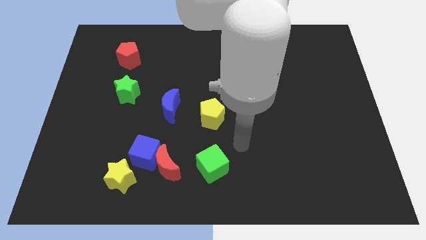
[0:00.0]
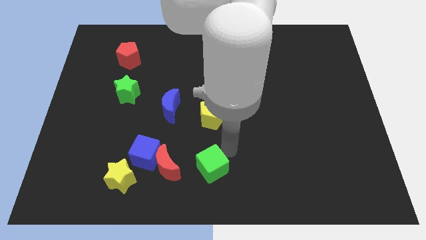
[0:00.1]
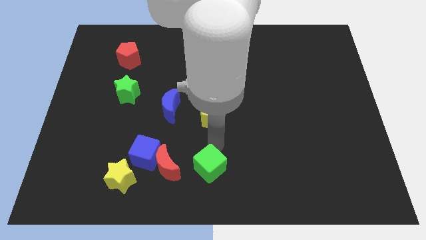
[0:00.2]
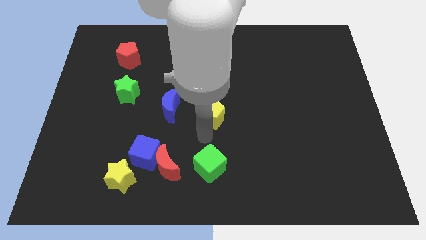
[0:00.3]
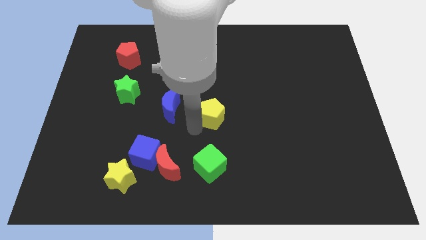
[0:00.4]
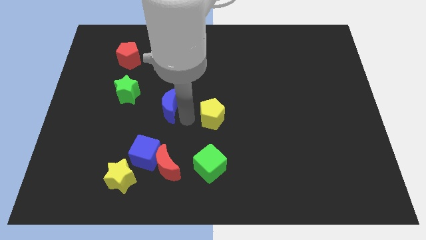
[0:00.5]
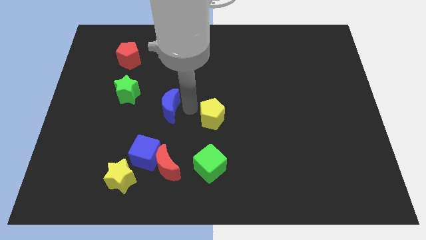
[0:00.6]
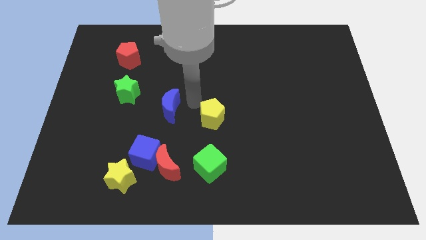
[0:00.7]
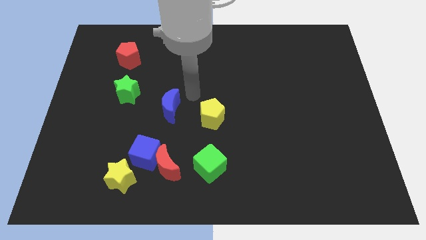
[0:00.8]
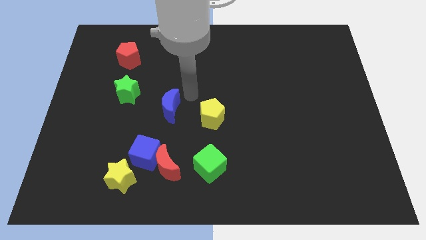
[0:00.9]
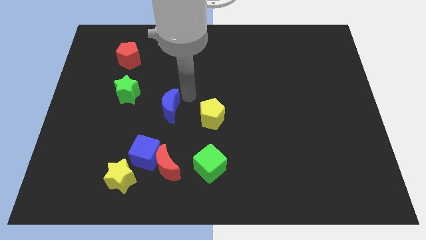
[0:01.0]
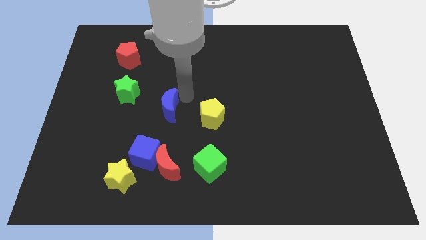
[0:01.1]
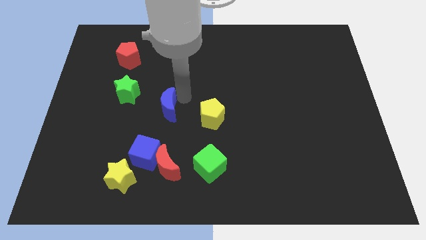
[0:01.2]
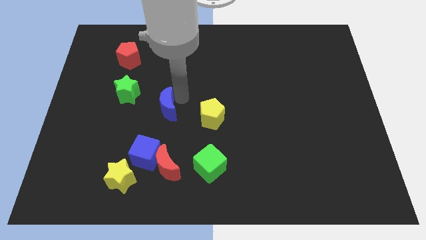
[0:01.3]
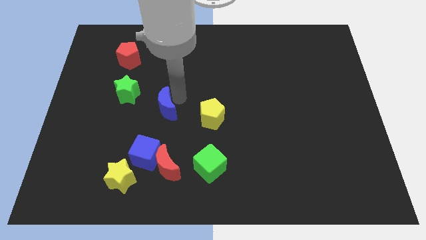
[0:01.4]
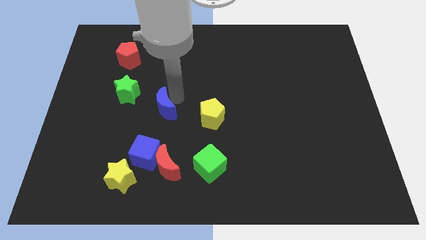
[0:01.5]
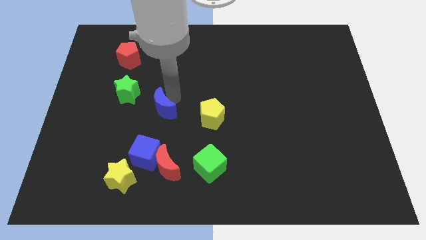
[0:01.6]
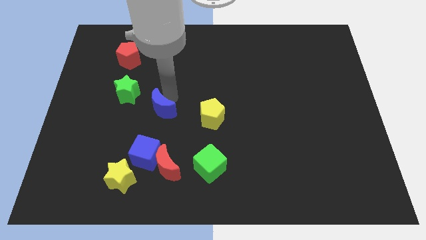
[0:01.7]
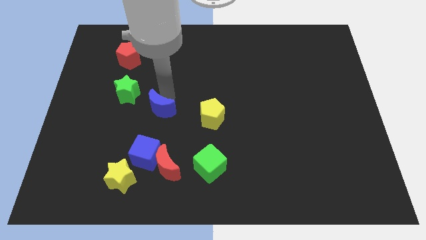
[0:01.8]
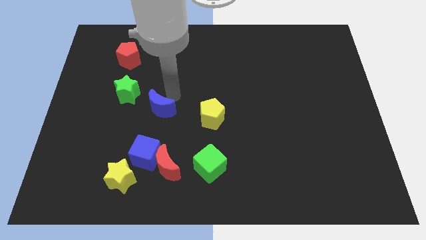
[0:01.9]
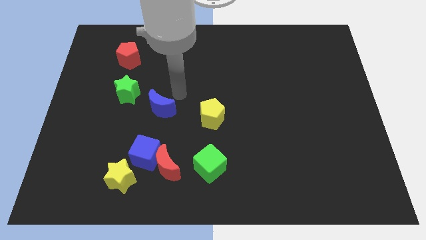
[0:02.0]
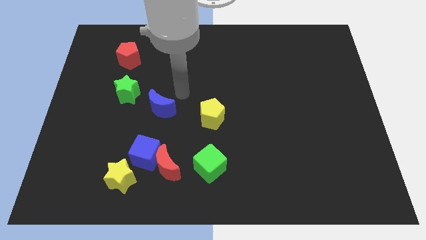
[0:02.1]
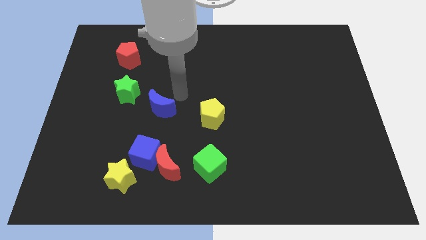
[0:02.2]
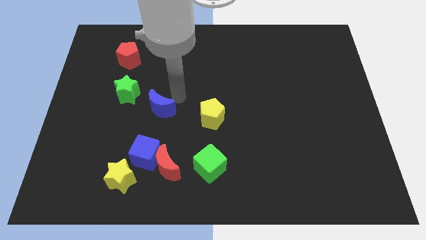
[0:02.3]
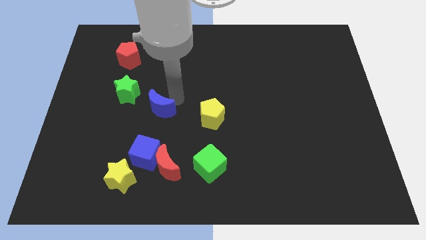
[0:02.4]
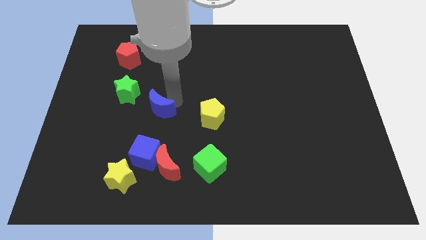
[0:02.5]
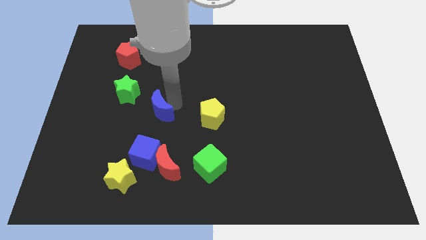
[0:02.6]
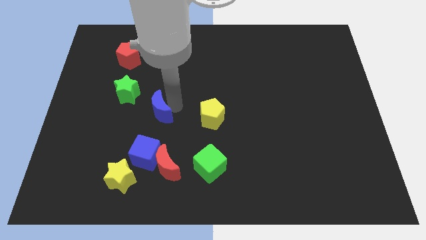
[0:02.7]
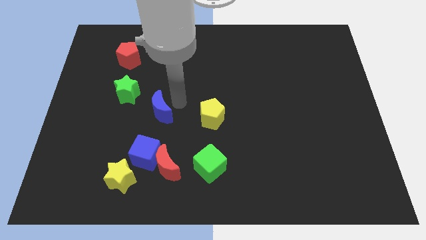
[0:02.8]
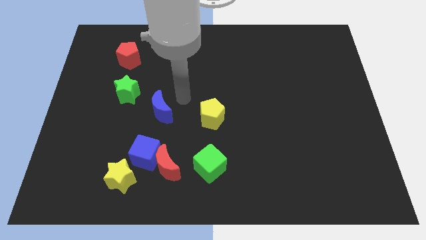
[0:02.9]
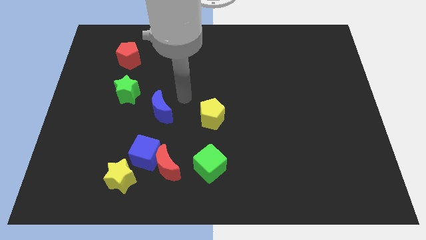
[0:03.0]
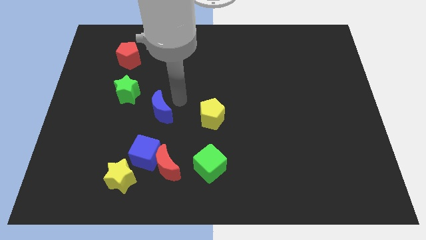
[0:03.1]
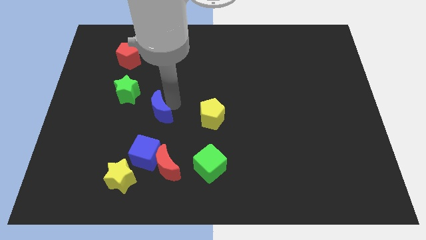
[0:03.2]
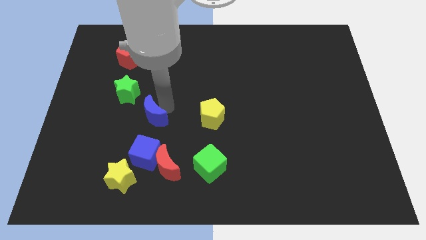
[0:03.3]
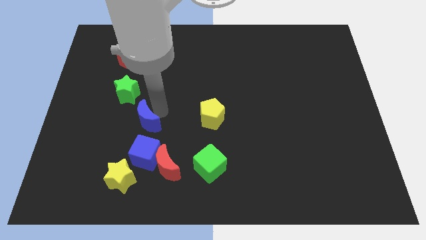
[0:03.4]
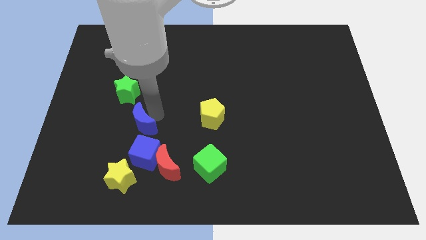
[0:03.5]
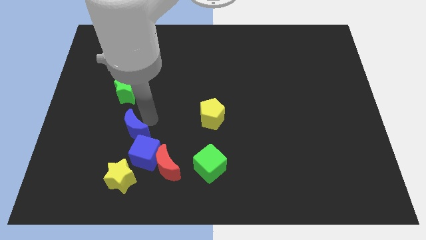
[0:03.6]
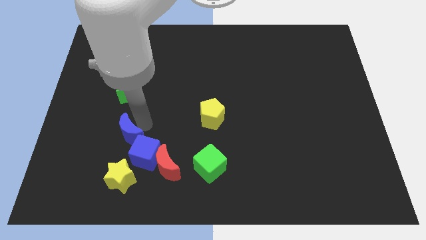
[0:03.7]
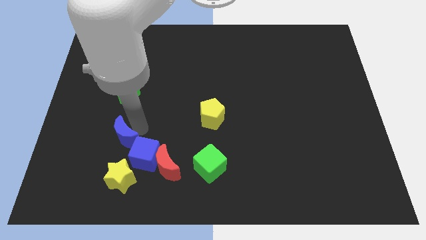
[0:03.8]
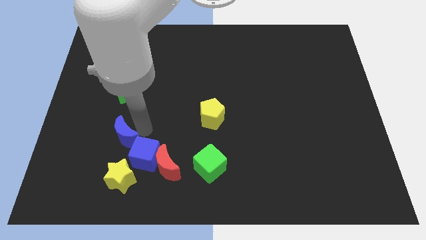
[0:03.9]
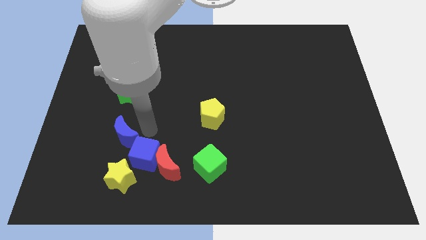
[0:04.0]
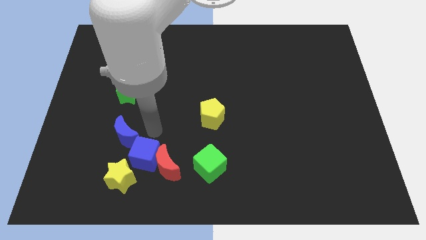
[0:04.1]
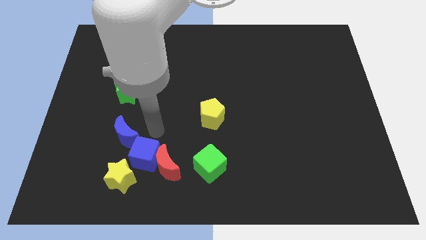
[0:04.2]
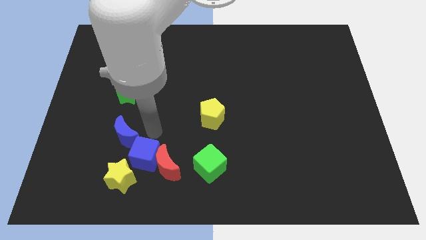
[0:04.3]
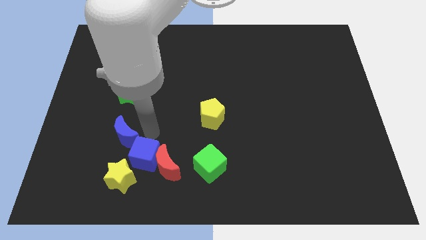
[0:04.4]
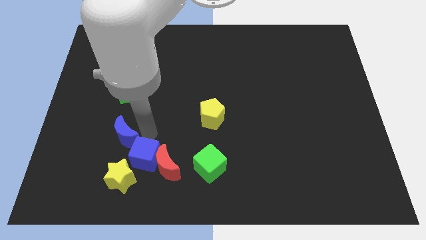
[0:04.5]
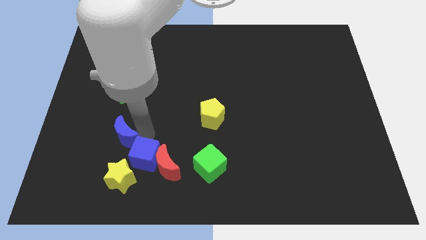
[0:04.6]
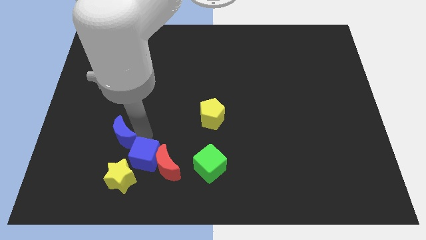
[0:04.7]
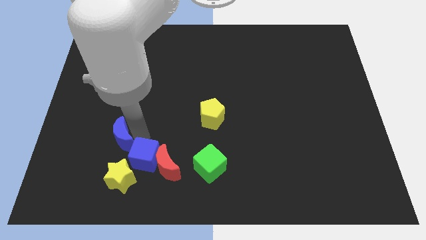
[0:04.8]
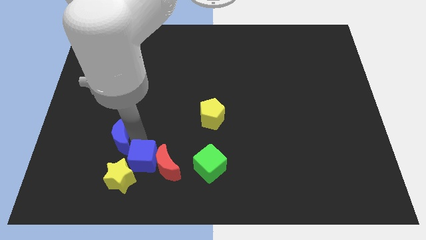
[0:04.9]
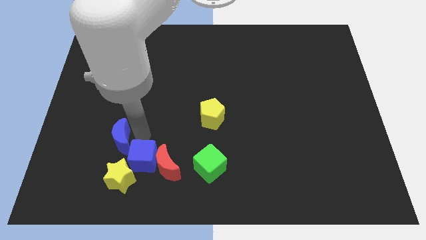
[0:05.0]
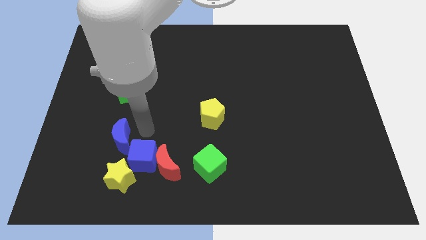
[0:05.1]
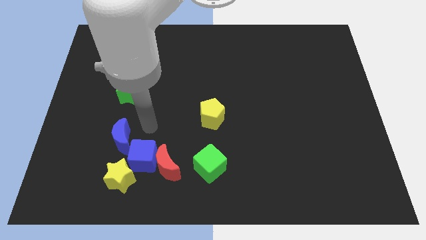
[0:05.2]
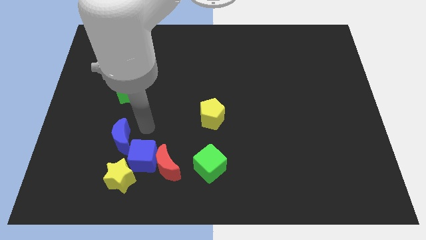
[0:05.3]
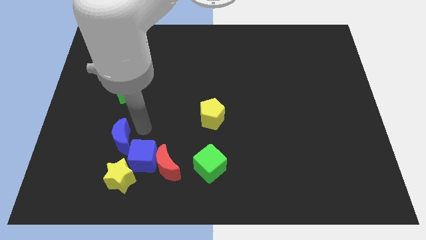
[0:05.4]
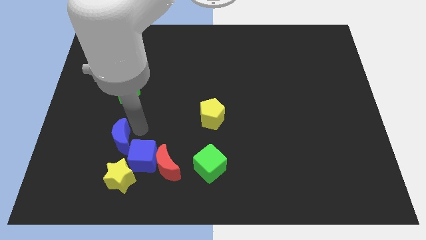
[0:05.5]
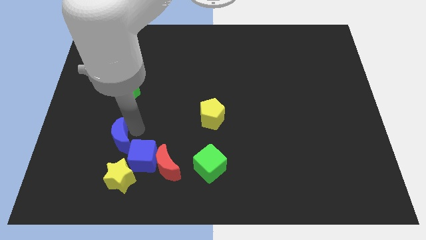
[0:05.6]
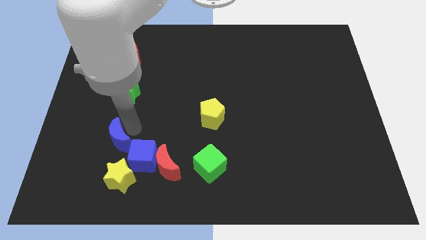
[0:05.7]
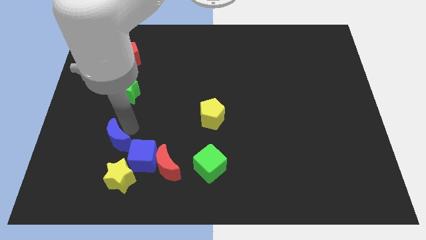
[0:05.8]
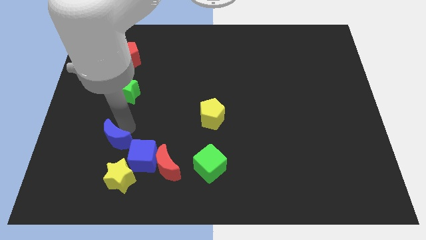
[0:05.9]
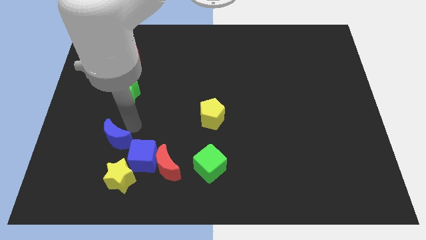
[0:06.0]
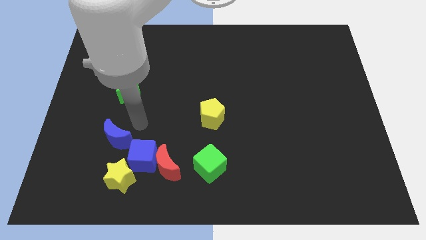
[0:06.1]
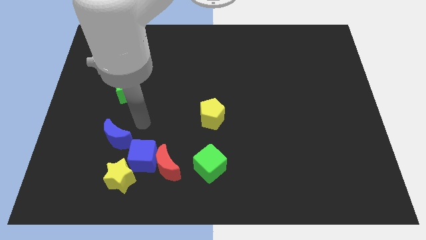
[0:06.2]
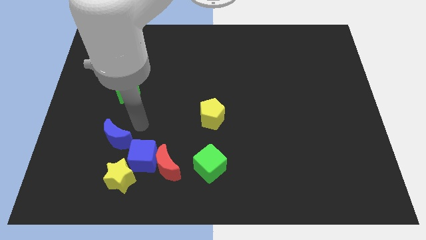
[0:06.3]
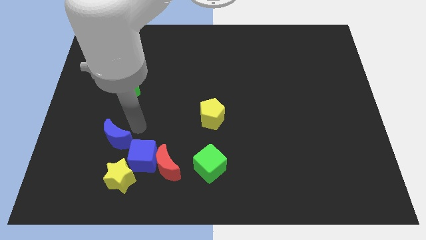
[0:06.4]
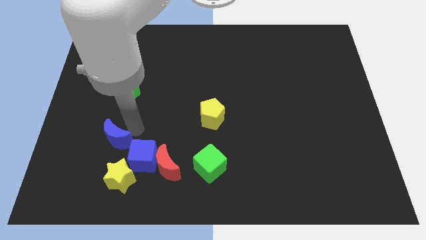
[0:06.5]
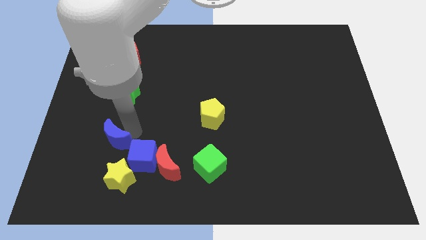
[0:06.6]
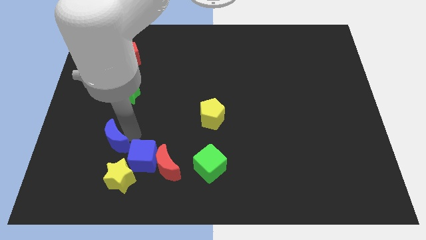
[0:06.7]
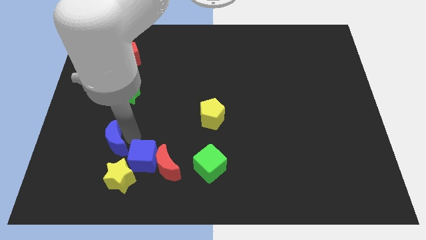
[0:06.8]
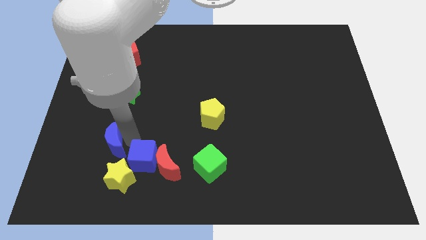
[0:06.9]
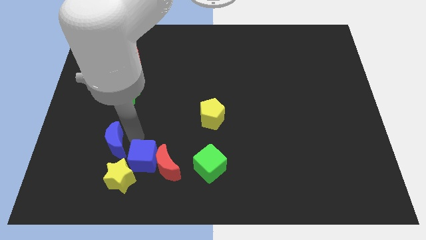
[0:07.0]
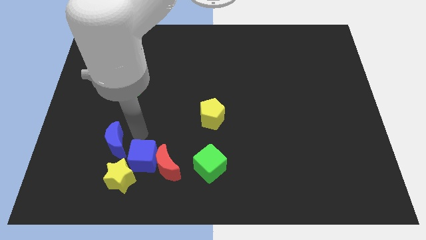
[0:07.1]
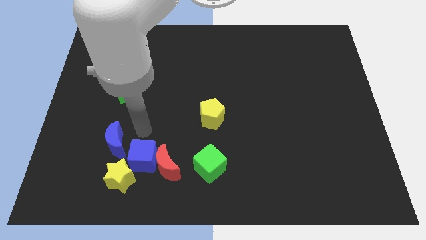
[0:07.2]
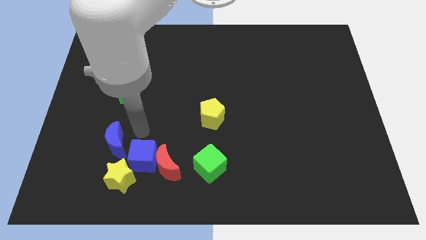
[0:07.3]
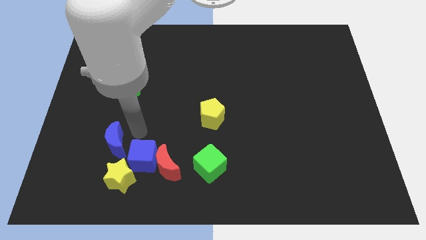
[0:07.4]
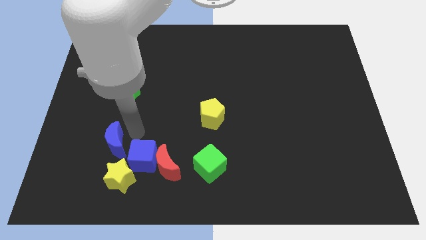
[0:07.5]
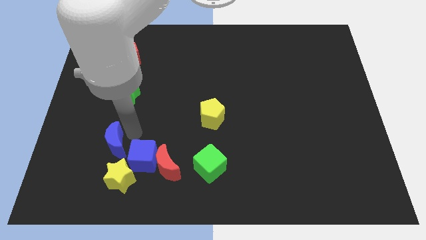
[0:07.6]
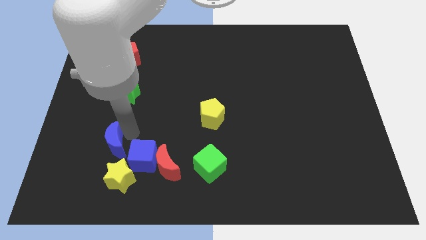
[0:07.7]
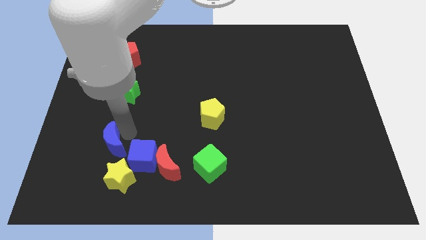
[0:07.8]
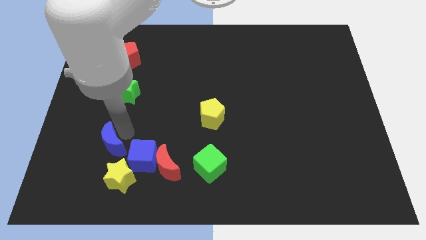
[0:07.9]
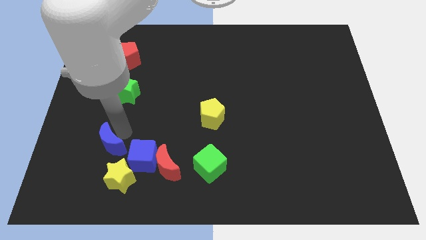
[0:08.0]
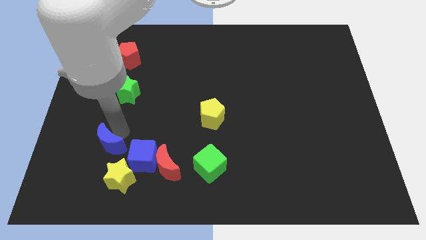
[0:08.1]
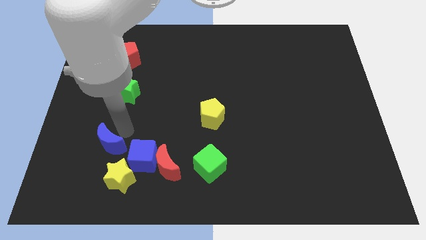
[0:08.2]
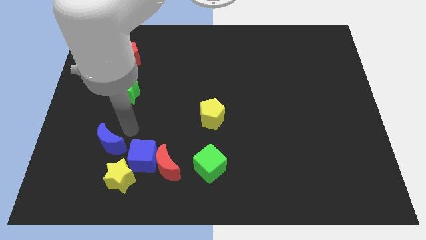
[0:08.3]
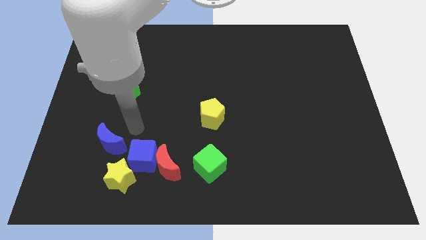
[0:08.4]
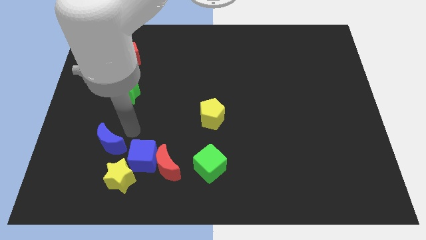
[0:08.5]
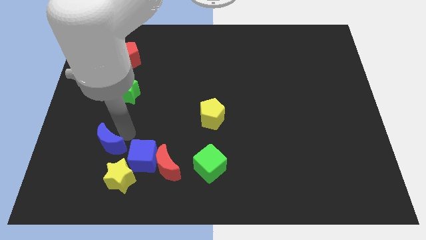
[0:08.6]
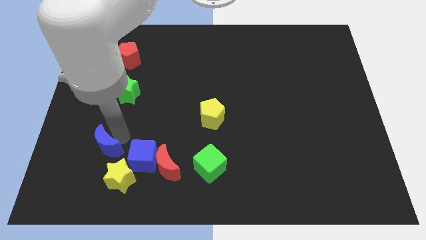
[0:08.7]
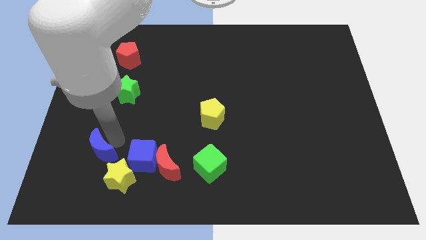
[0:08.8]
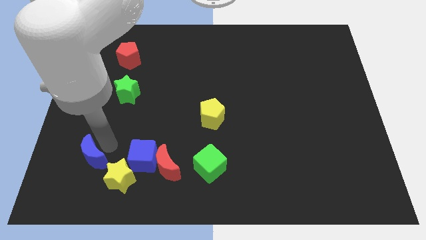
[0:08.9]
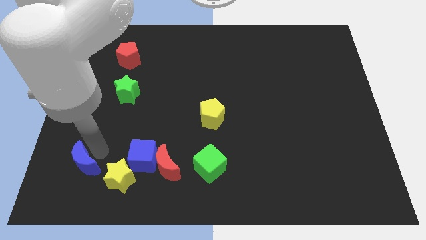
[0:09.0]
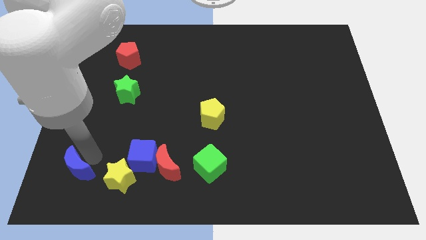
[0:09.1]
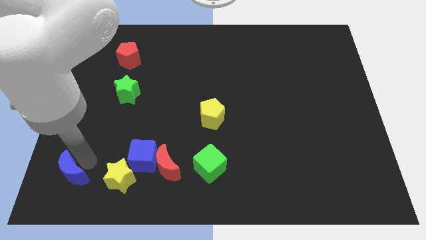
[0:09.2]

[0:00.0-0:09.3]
move the blue moon to the bottom left corner
